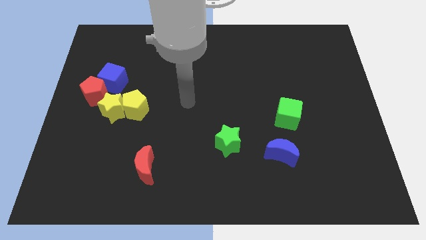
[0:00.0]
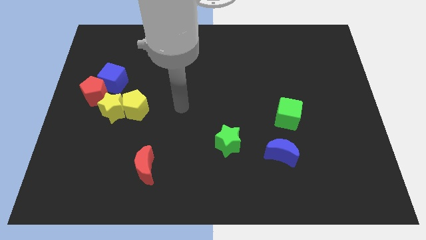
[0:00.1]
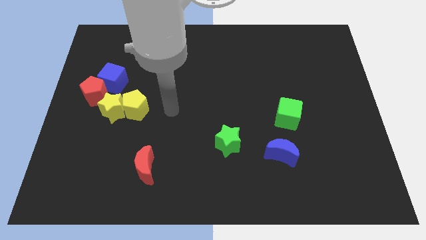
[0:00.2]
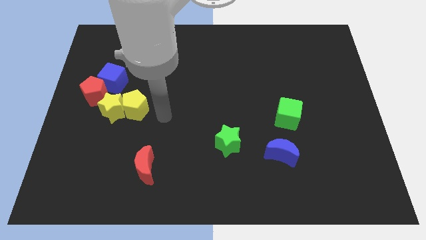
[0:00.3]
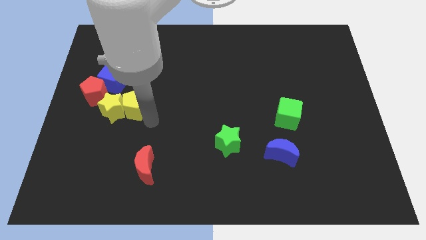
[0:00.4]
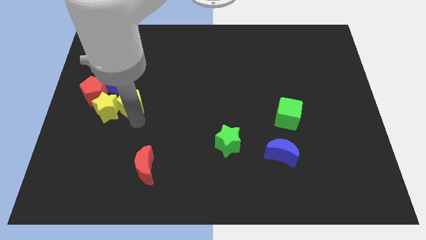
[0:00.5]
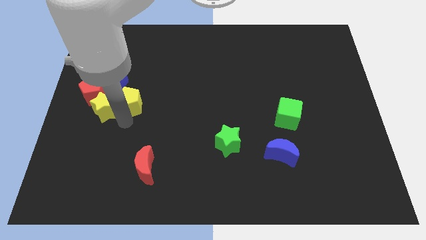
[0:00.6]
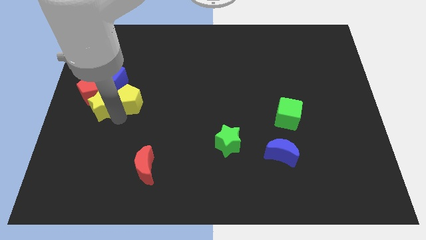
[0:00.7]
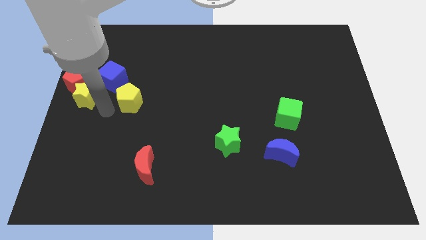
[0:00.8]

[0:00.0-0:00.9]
pull the yellow pentagon apart from the yellow star

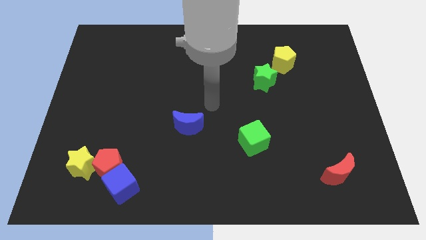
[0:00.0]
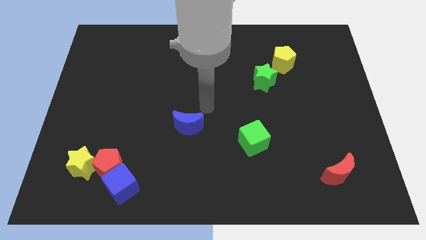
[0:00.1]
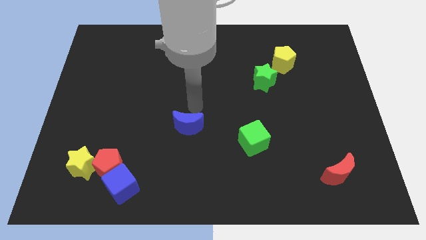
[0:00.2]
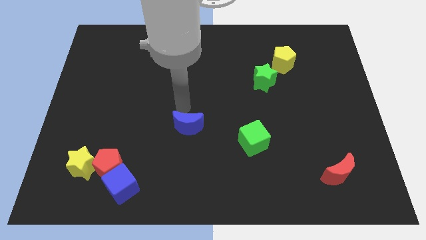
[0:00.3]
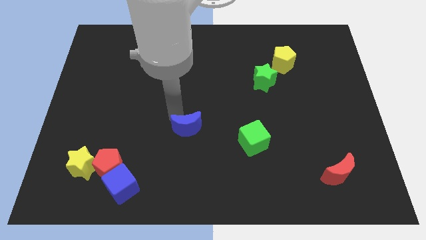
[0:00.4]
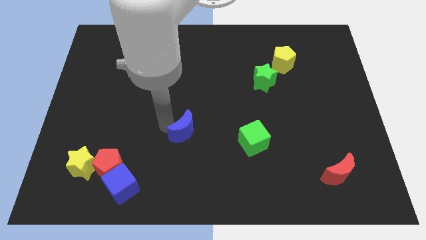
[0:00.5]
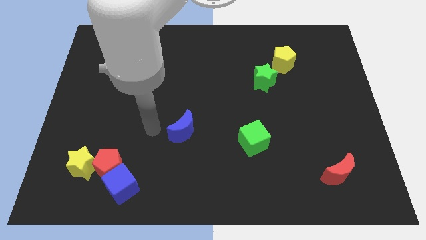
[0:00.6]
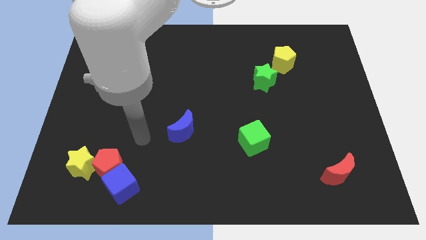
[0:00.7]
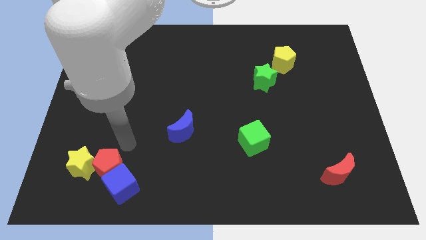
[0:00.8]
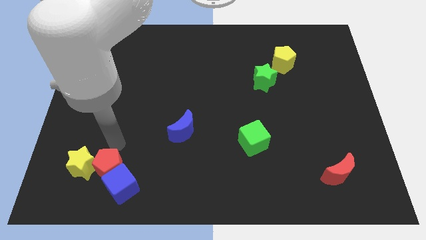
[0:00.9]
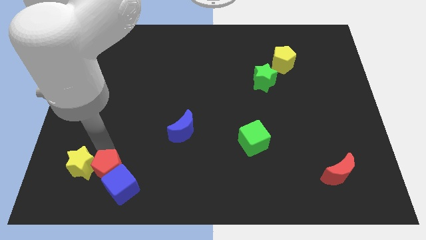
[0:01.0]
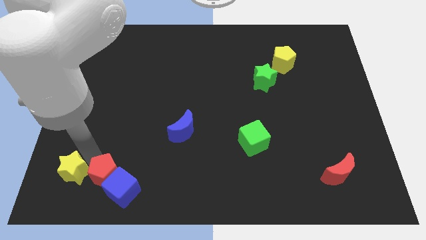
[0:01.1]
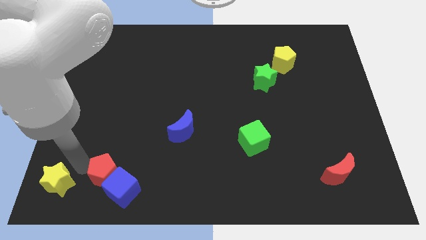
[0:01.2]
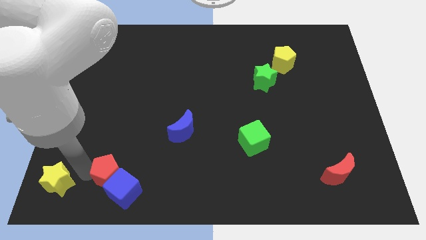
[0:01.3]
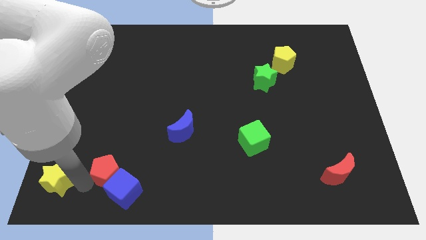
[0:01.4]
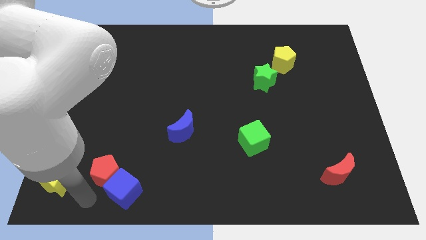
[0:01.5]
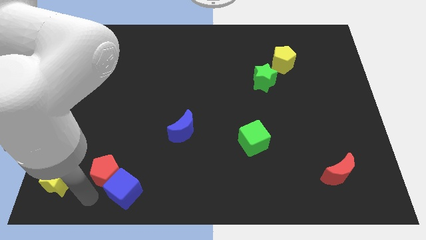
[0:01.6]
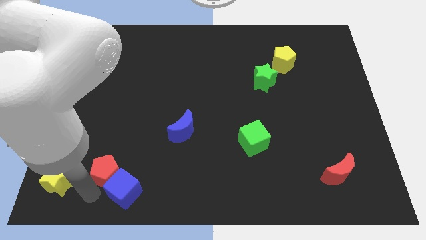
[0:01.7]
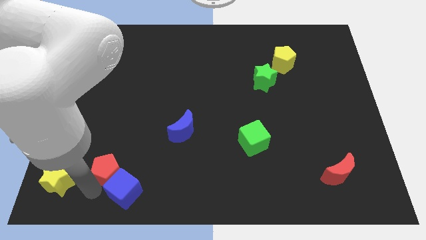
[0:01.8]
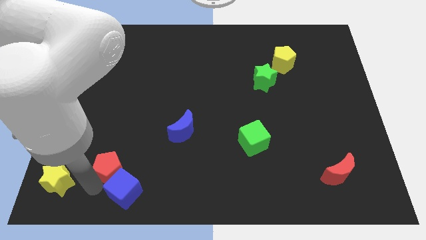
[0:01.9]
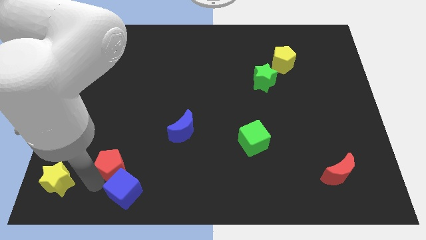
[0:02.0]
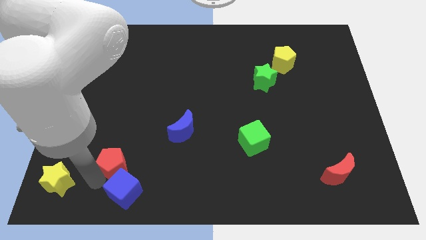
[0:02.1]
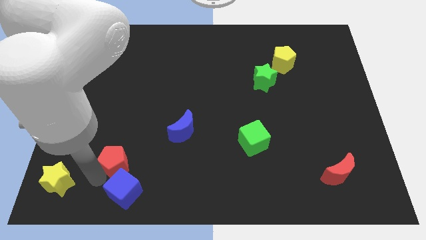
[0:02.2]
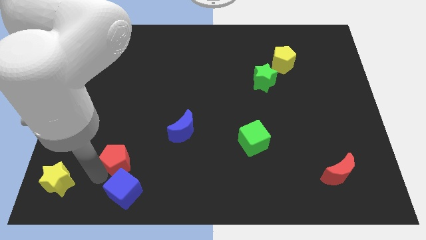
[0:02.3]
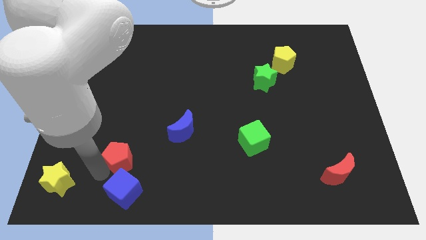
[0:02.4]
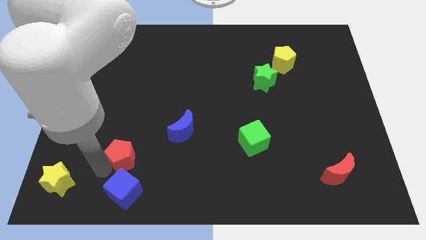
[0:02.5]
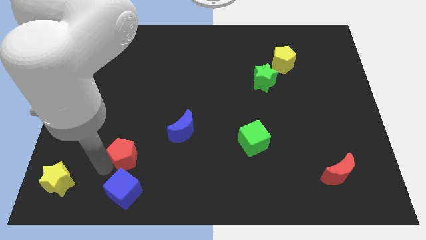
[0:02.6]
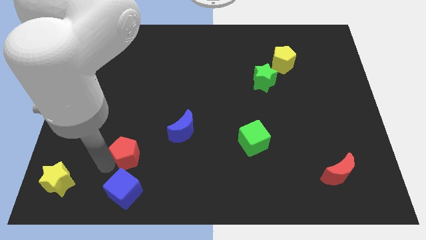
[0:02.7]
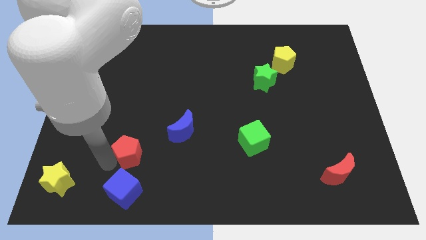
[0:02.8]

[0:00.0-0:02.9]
pull the red pentagon apart from the blue cube and yellow star

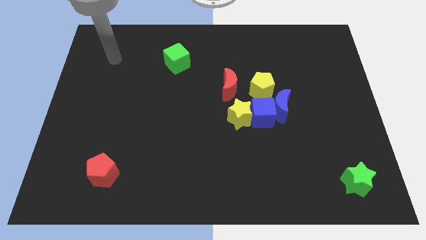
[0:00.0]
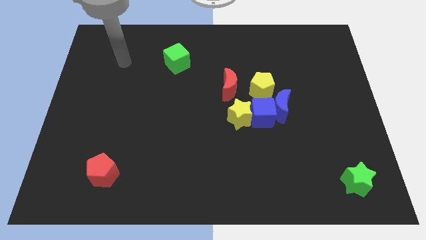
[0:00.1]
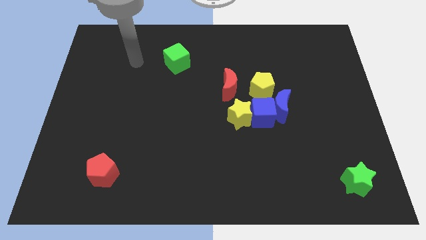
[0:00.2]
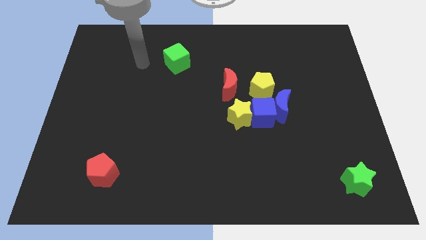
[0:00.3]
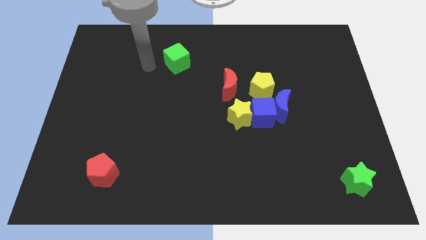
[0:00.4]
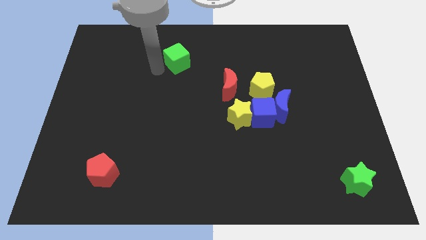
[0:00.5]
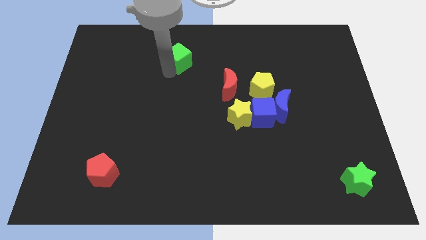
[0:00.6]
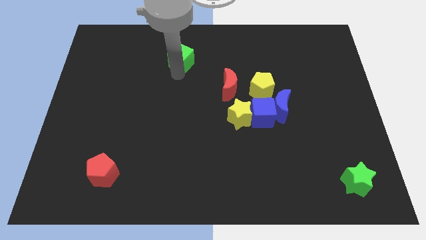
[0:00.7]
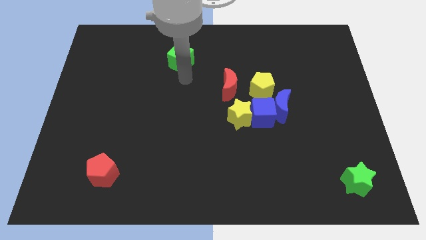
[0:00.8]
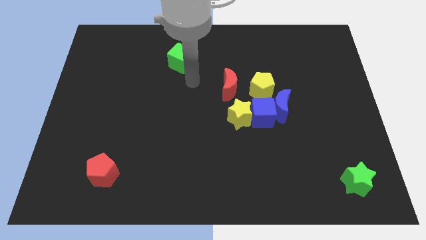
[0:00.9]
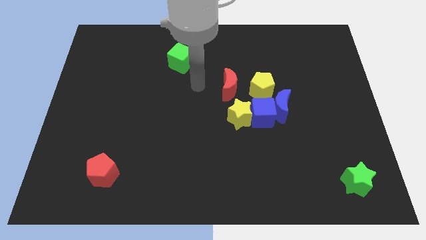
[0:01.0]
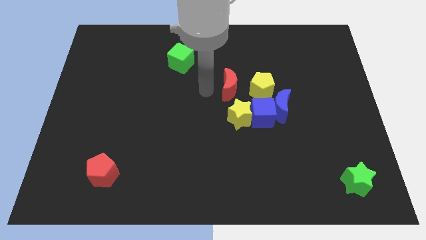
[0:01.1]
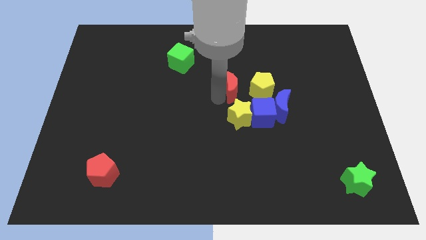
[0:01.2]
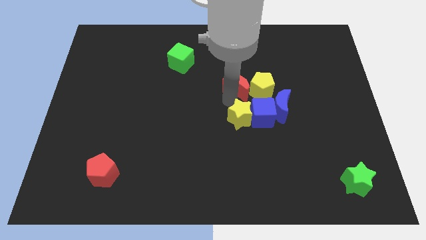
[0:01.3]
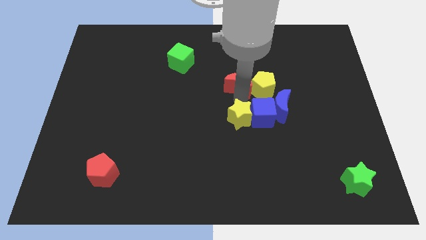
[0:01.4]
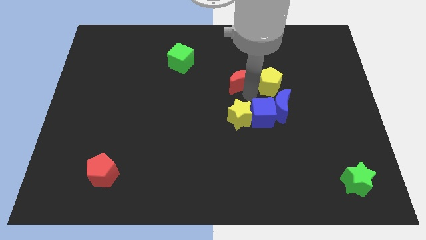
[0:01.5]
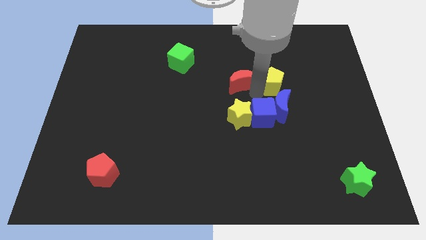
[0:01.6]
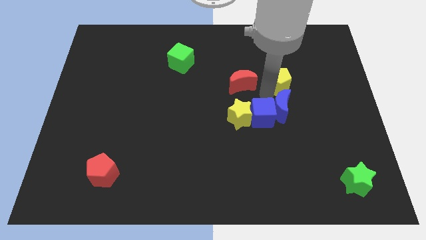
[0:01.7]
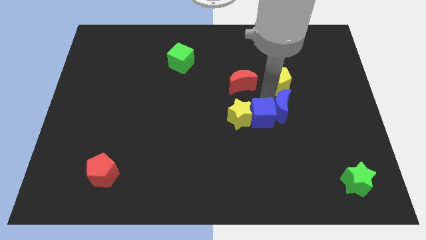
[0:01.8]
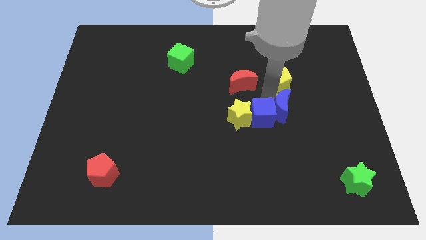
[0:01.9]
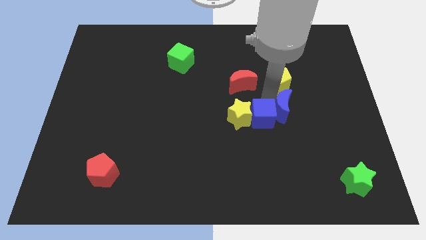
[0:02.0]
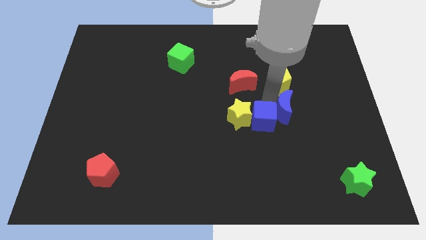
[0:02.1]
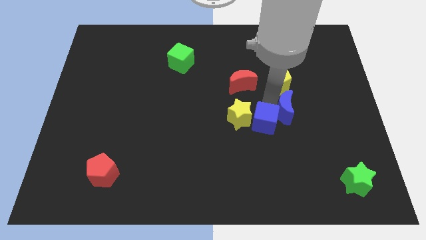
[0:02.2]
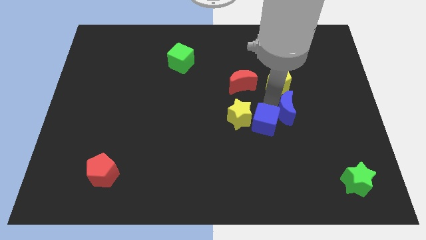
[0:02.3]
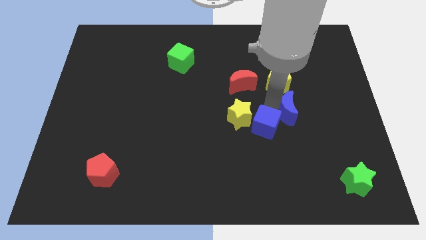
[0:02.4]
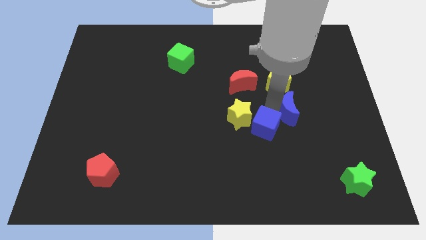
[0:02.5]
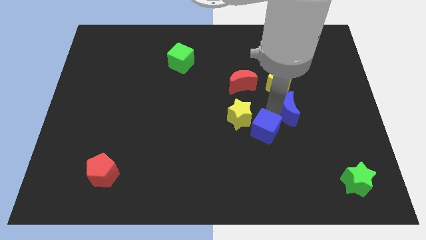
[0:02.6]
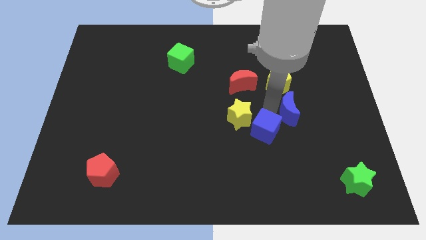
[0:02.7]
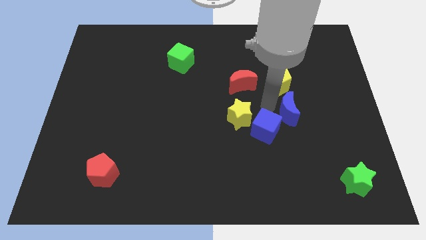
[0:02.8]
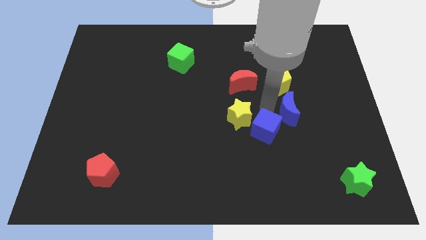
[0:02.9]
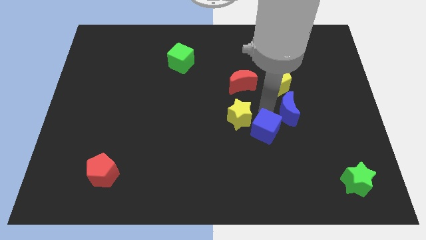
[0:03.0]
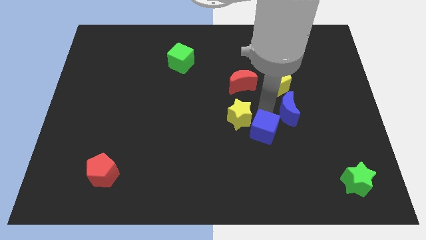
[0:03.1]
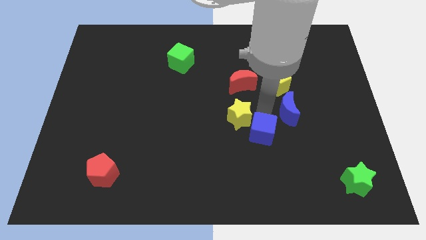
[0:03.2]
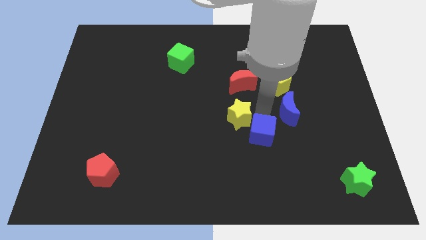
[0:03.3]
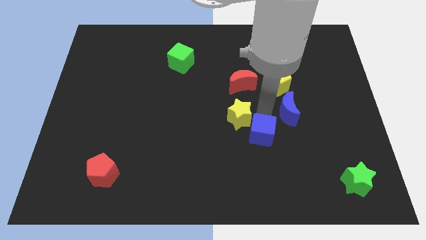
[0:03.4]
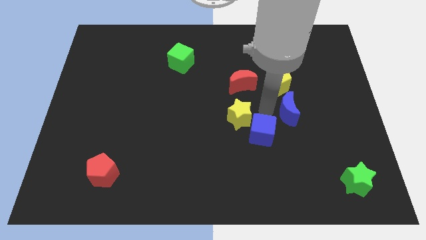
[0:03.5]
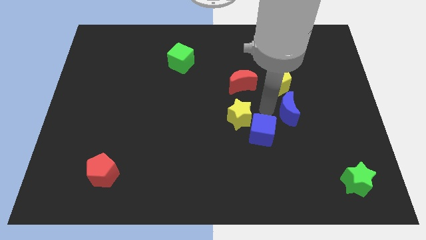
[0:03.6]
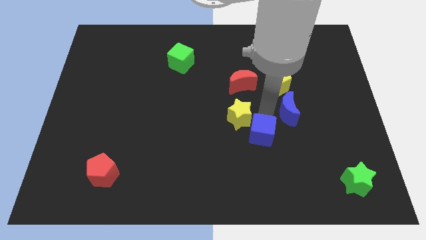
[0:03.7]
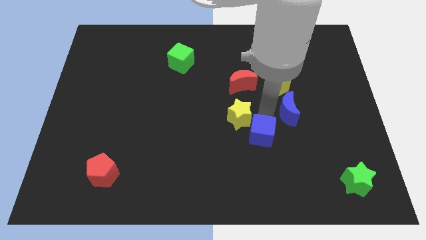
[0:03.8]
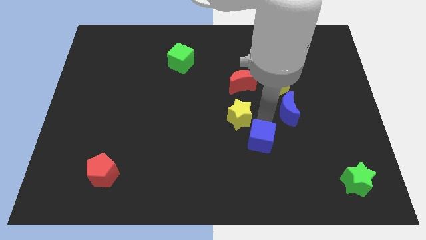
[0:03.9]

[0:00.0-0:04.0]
separate the blue cube from the clump

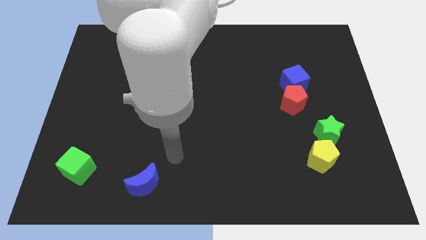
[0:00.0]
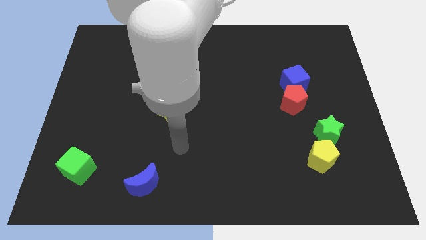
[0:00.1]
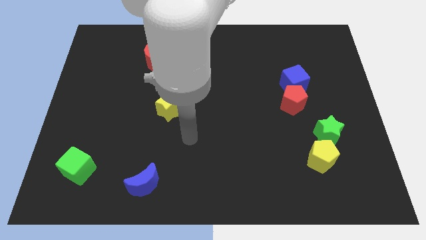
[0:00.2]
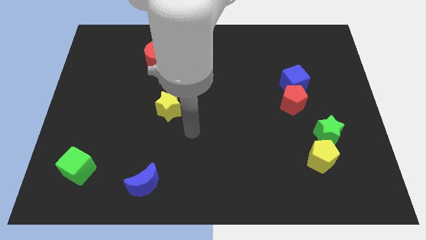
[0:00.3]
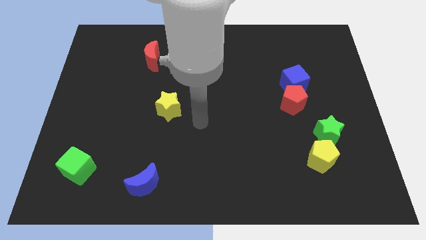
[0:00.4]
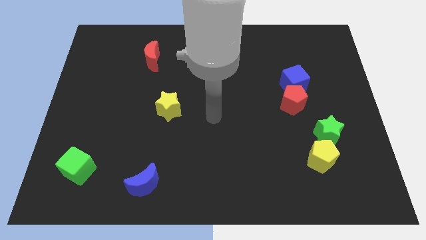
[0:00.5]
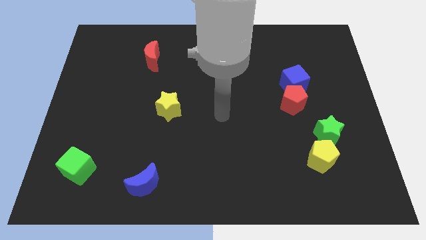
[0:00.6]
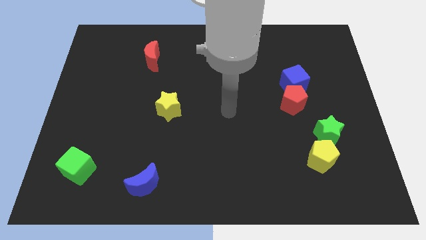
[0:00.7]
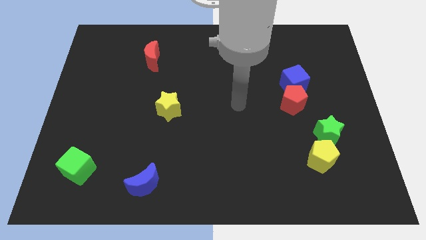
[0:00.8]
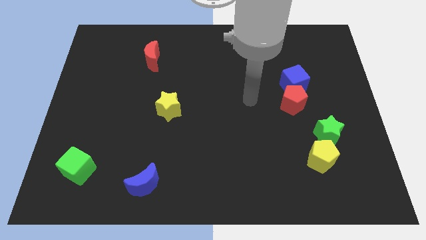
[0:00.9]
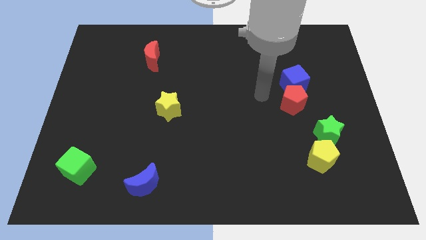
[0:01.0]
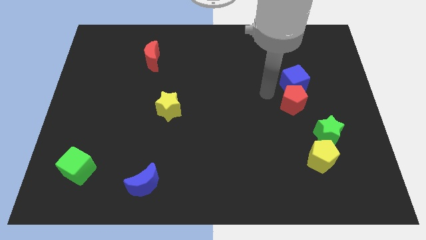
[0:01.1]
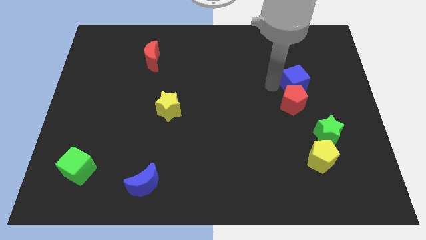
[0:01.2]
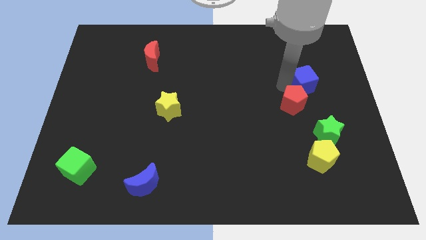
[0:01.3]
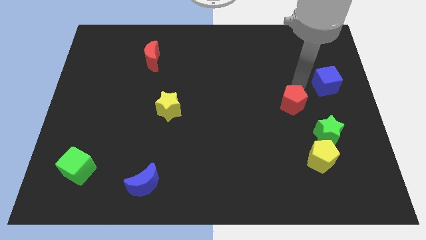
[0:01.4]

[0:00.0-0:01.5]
separate the red pentagon from the blue cube

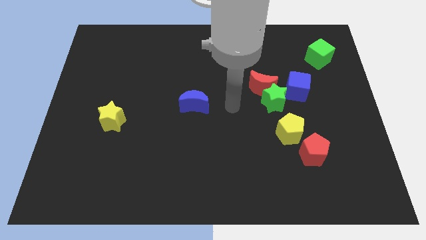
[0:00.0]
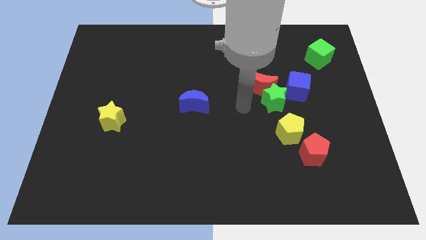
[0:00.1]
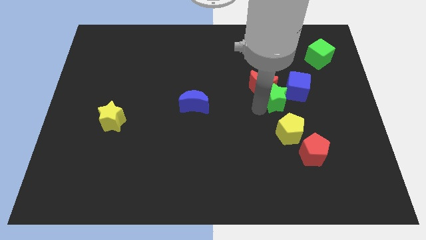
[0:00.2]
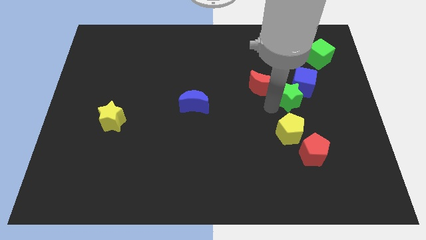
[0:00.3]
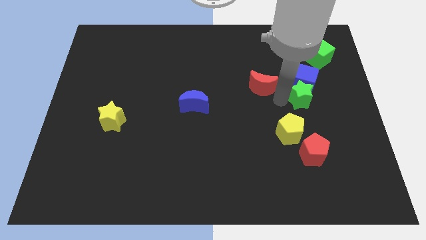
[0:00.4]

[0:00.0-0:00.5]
separate the red moon from the green star and blue cube
